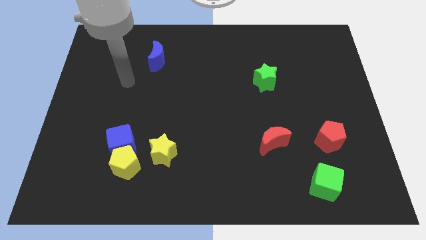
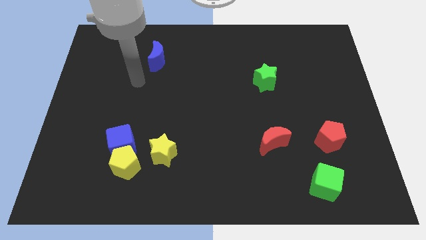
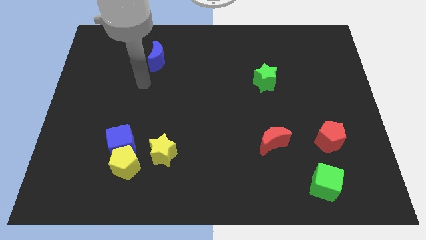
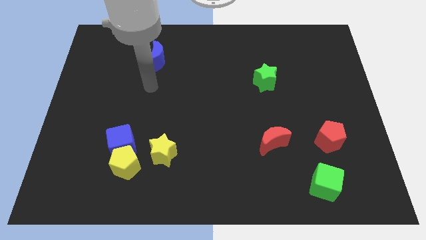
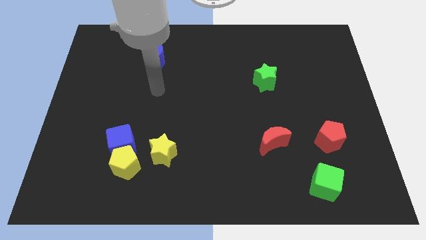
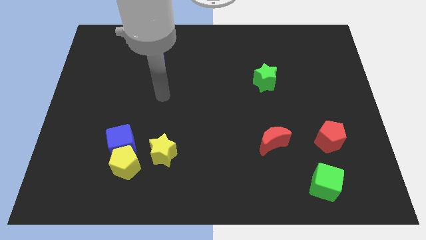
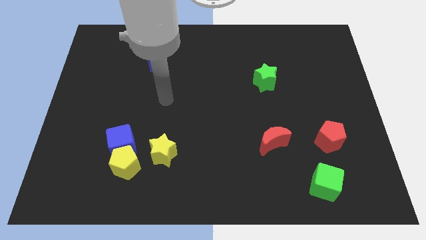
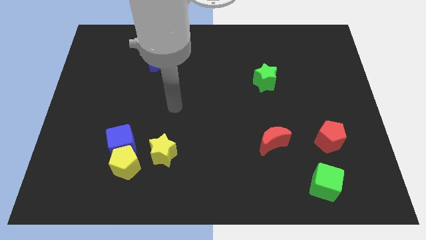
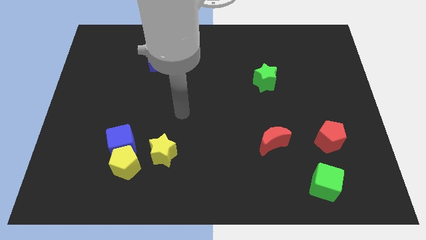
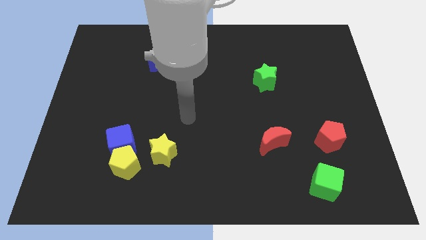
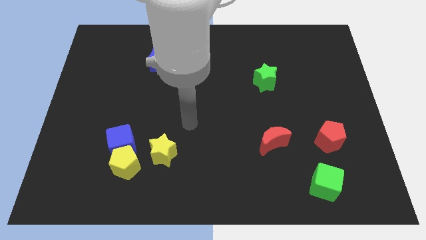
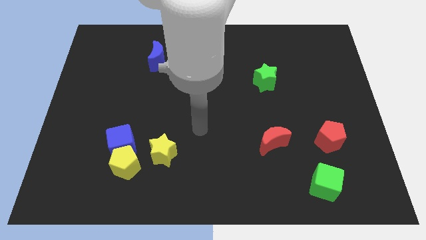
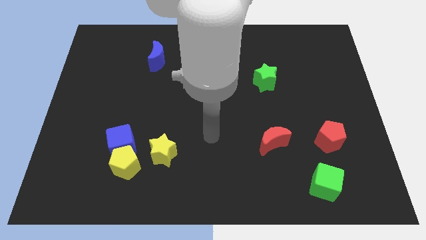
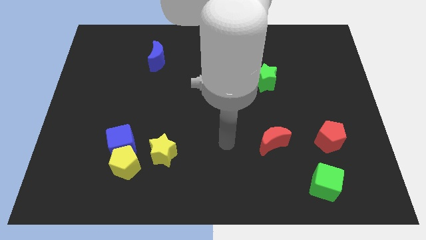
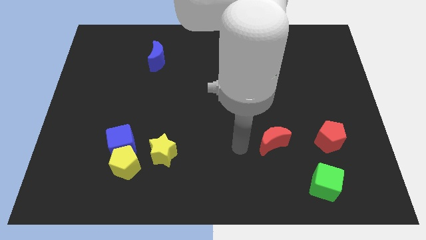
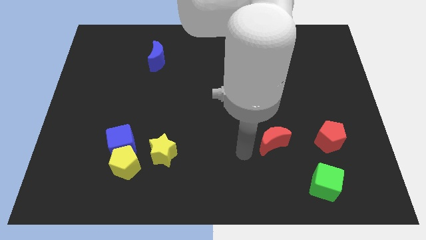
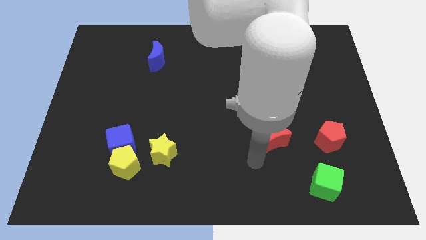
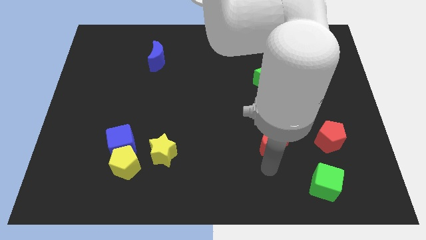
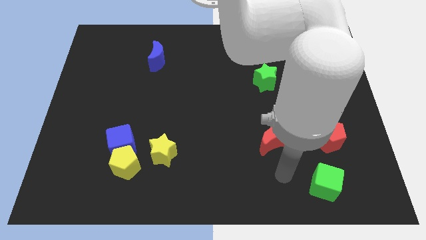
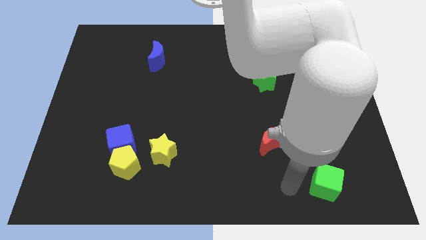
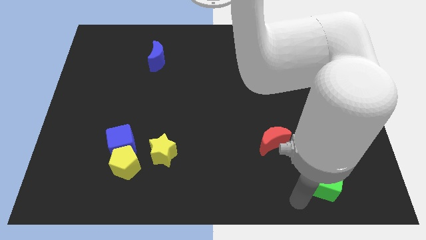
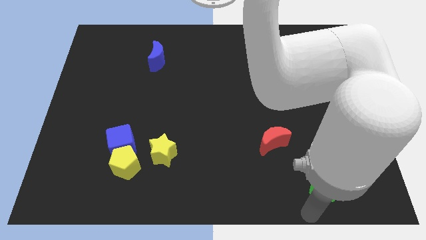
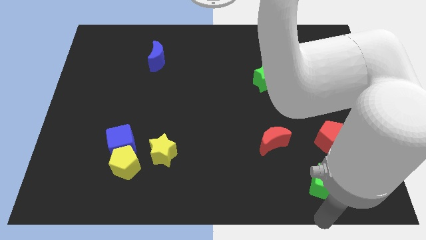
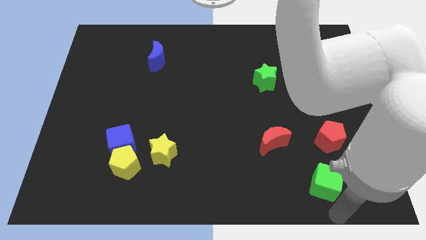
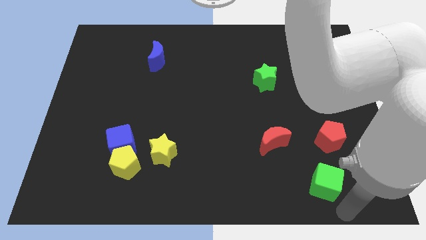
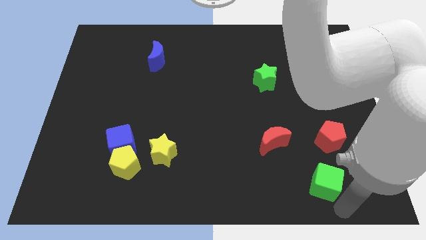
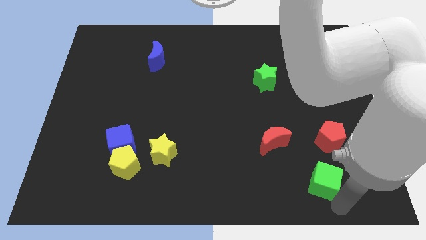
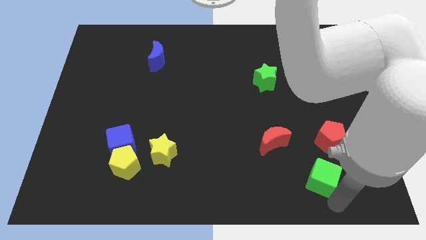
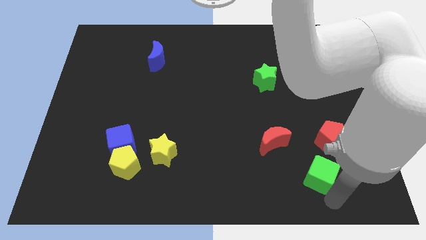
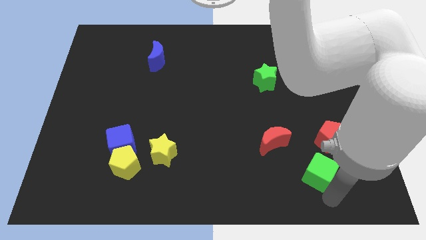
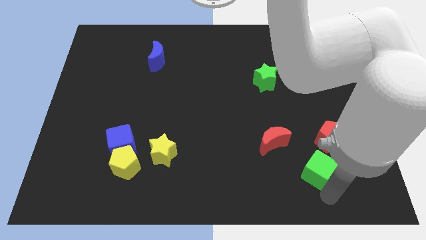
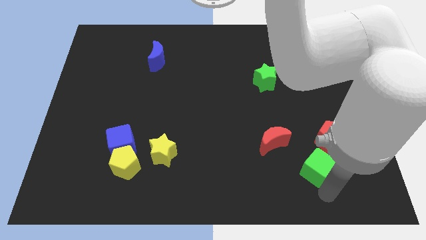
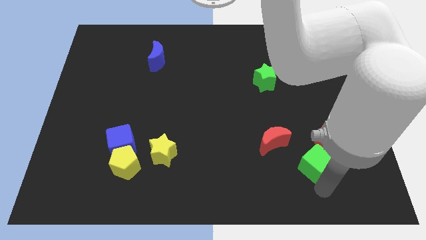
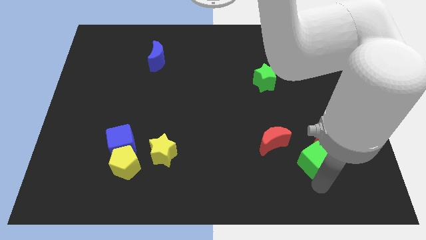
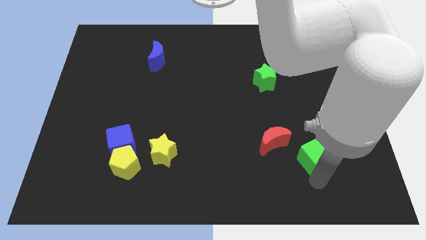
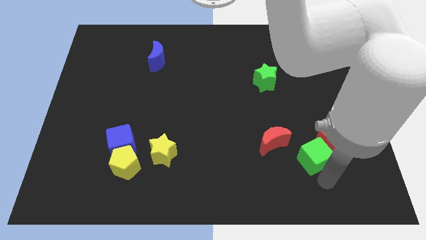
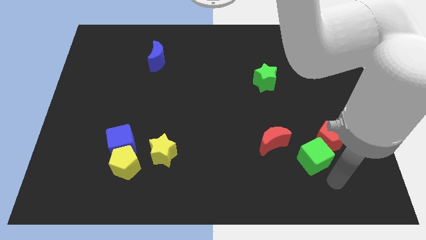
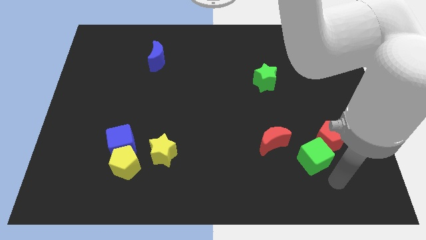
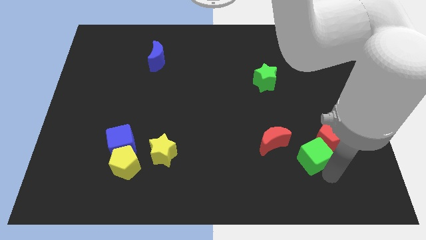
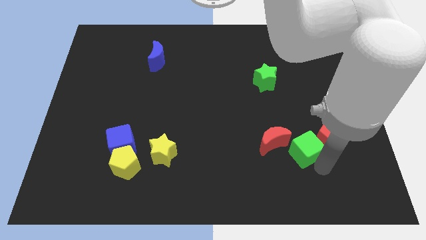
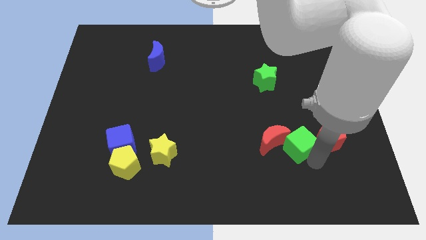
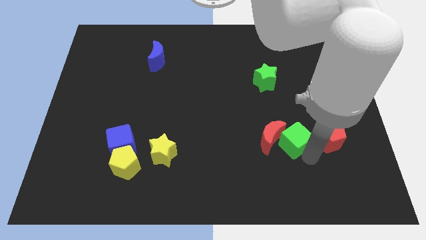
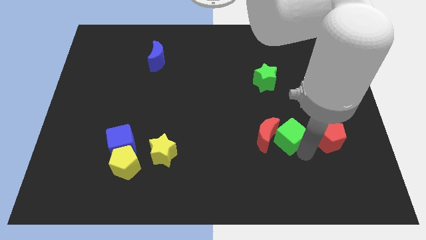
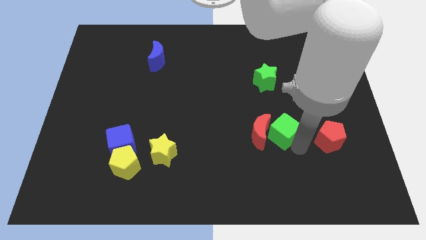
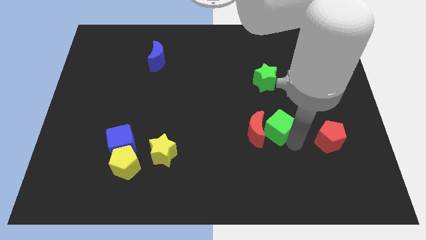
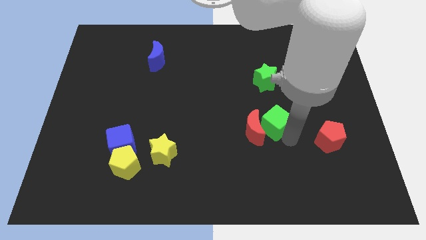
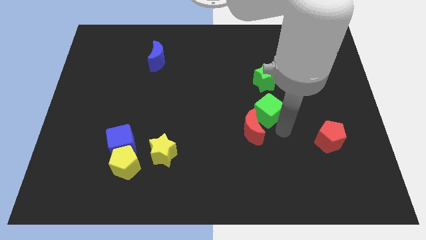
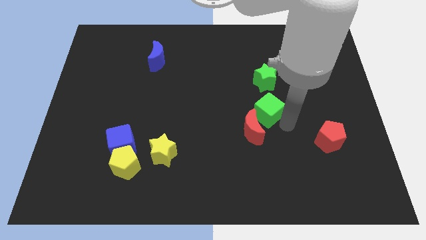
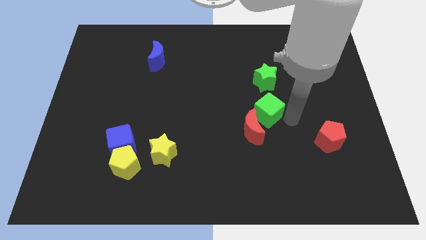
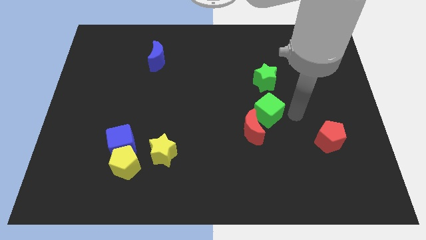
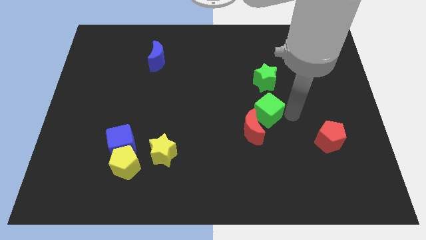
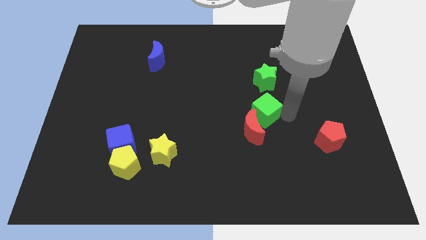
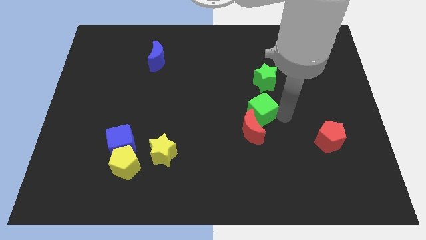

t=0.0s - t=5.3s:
slide the green cube up and then to the left

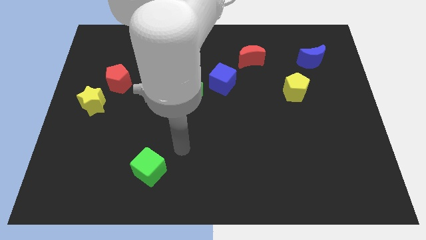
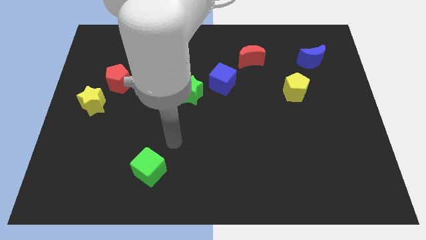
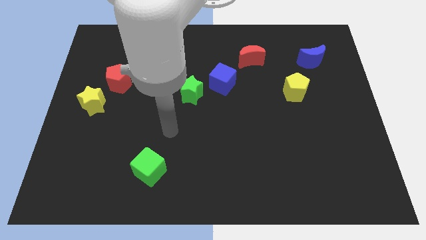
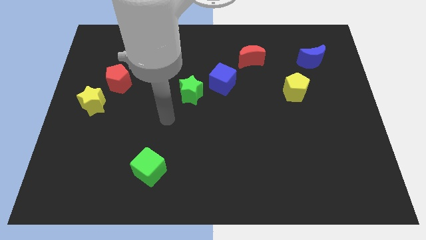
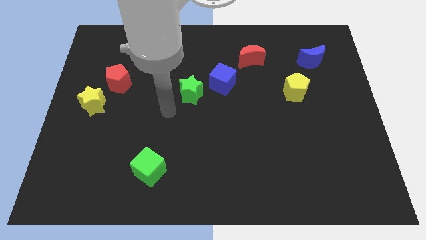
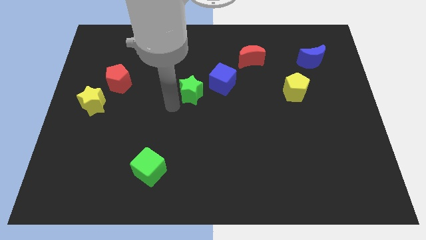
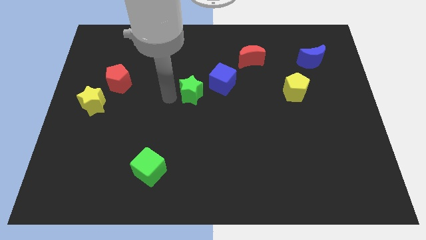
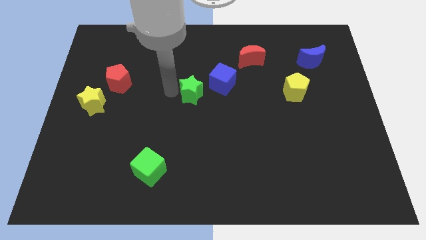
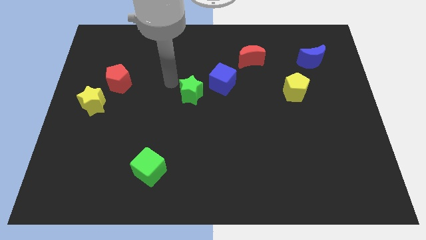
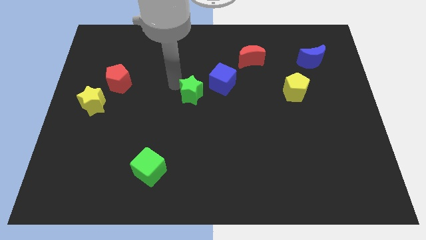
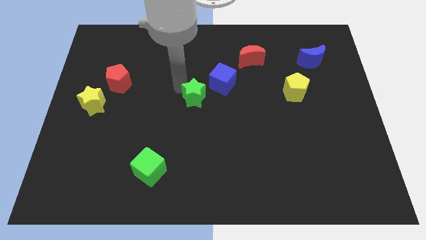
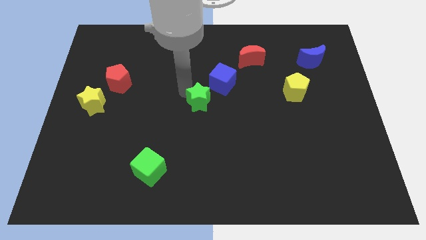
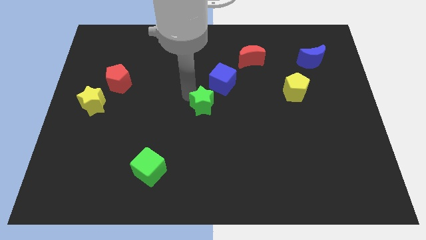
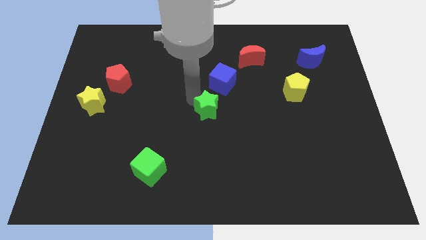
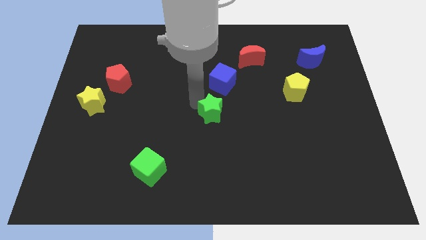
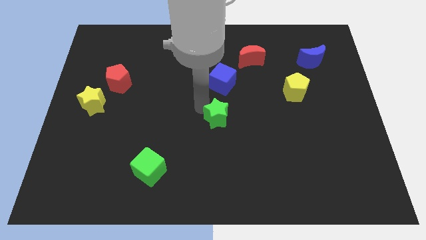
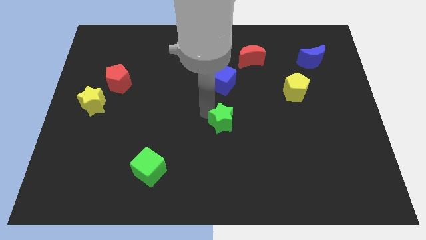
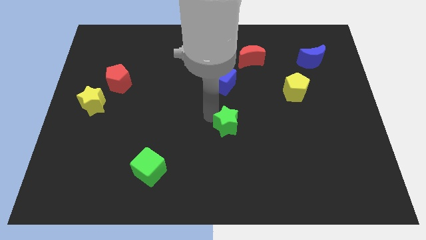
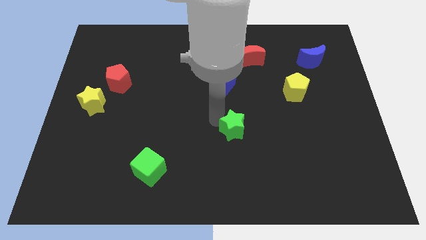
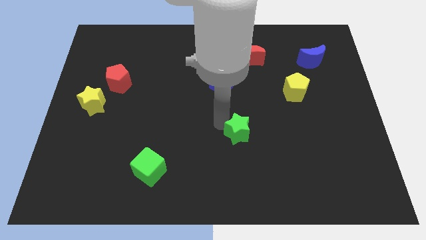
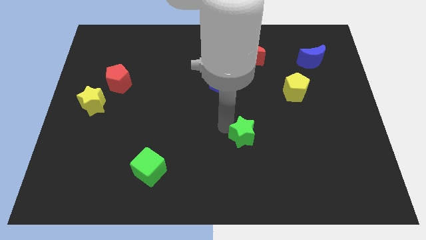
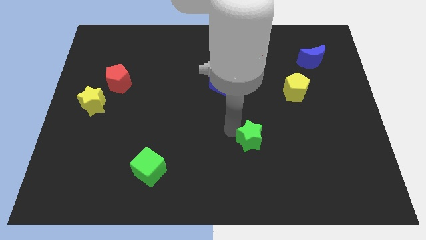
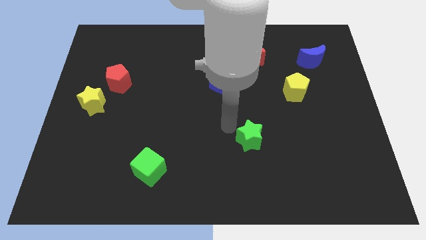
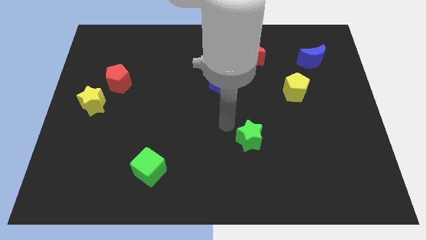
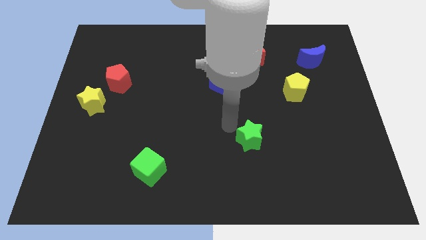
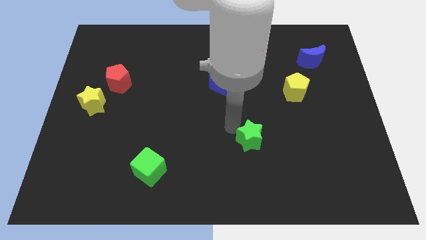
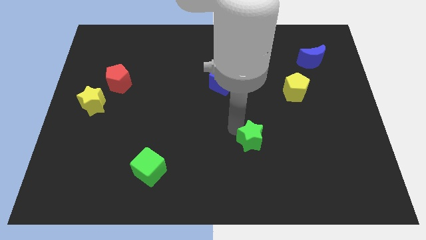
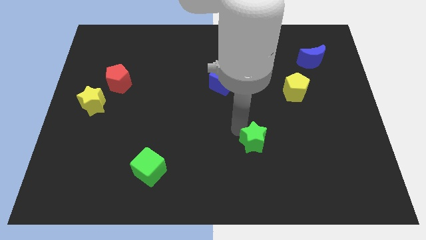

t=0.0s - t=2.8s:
slide the green star diagonally downwards and right
